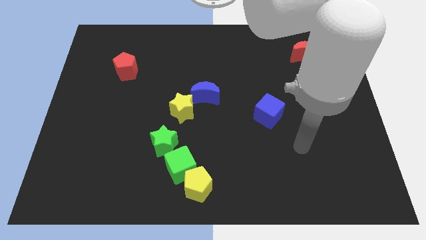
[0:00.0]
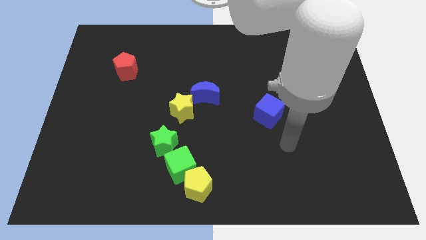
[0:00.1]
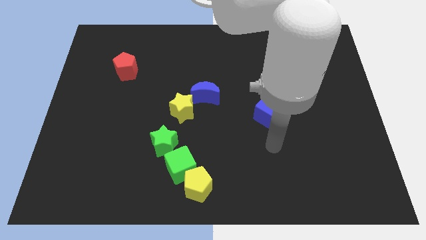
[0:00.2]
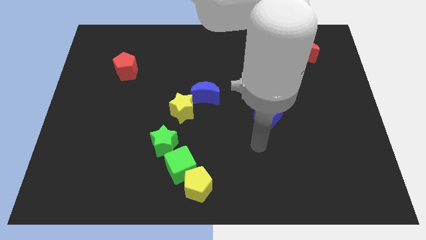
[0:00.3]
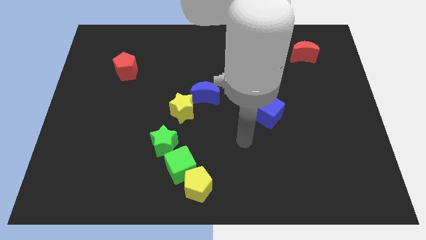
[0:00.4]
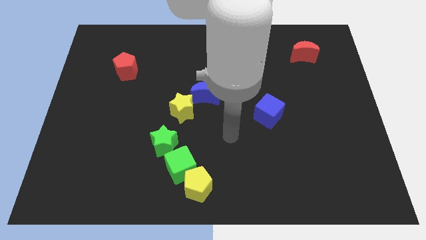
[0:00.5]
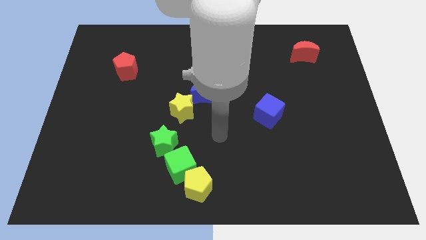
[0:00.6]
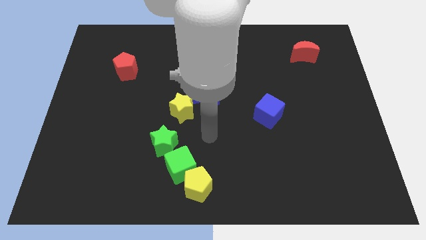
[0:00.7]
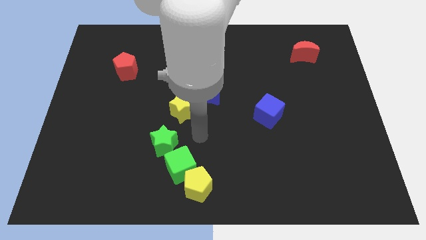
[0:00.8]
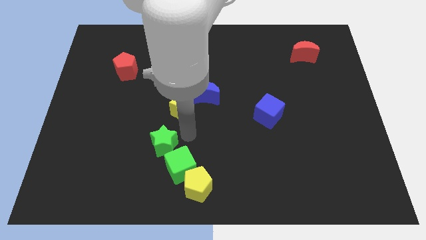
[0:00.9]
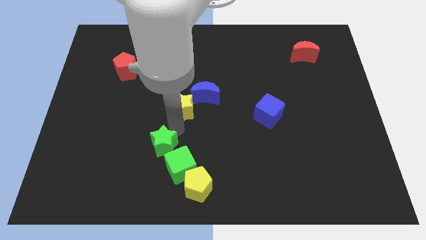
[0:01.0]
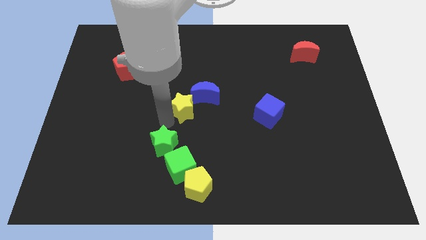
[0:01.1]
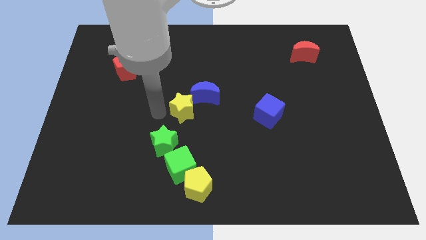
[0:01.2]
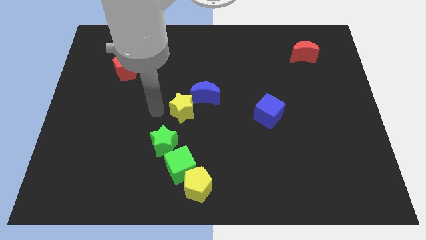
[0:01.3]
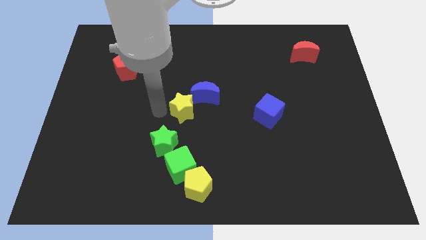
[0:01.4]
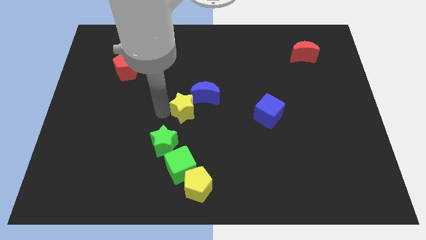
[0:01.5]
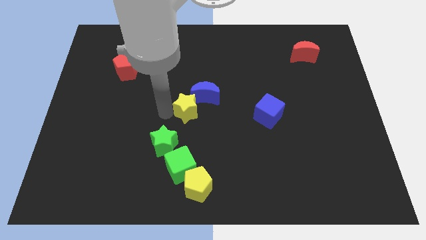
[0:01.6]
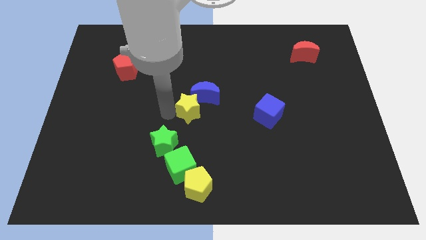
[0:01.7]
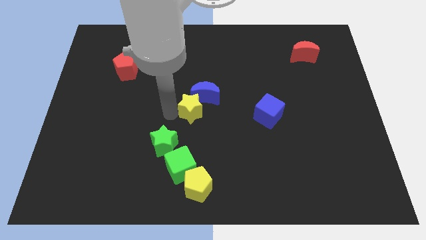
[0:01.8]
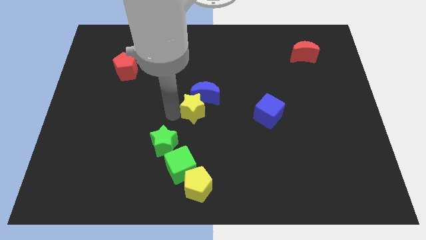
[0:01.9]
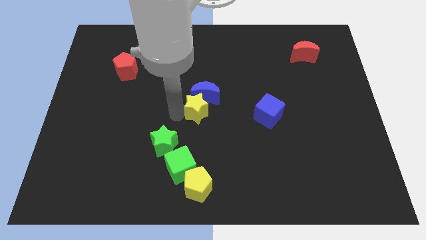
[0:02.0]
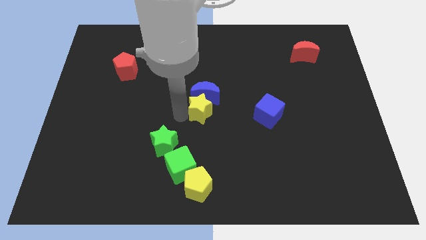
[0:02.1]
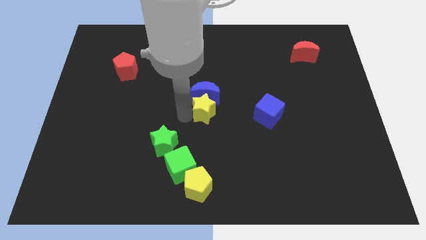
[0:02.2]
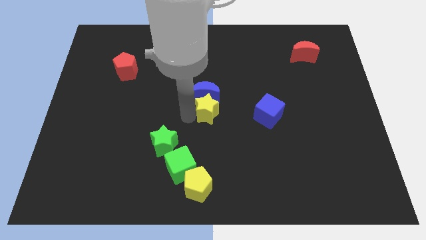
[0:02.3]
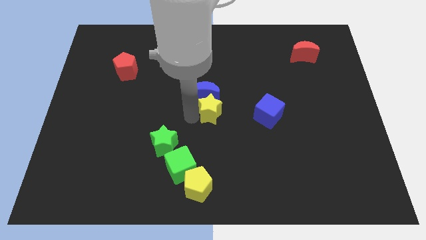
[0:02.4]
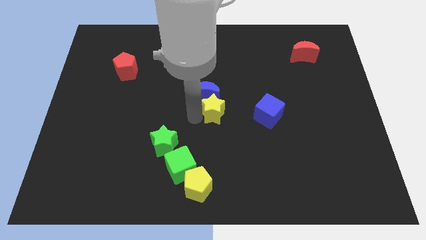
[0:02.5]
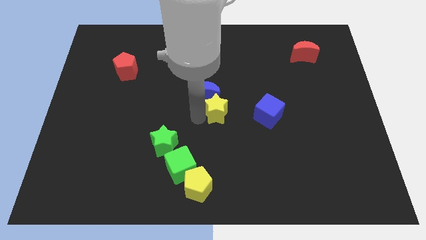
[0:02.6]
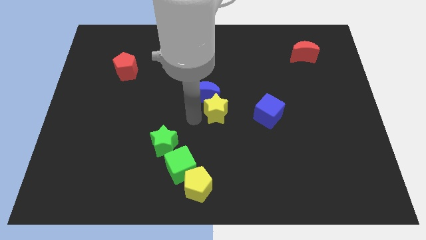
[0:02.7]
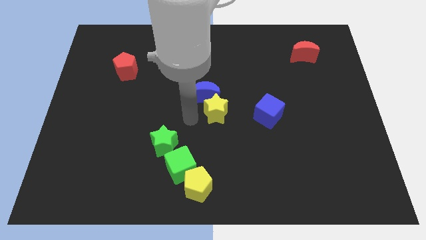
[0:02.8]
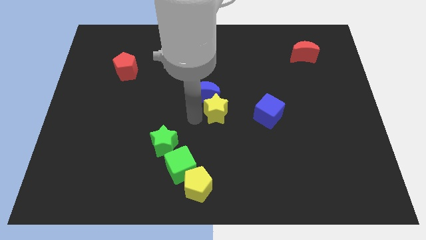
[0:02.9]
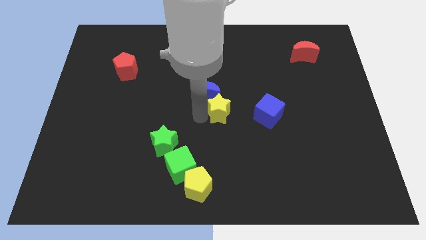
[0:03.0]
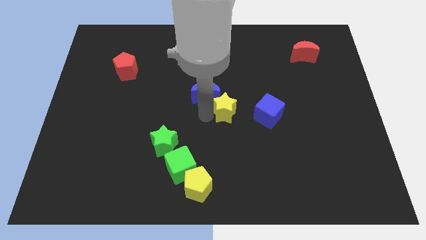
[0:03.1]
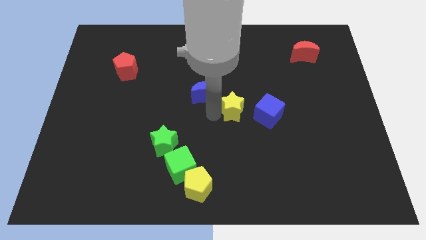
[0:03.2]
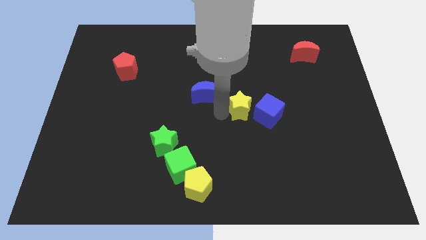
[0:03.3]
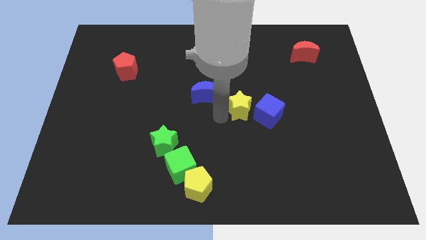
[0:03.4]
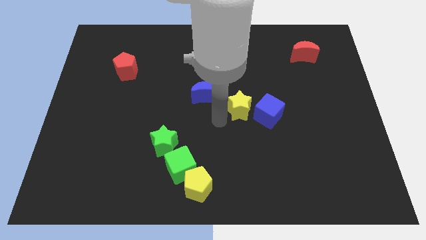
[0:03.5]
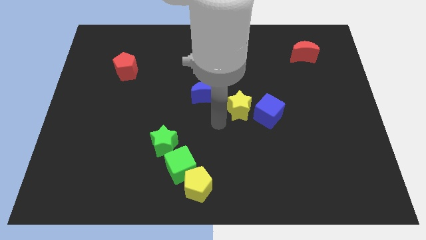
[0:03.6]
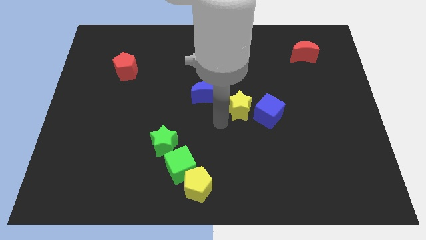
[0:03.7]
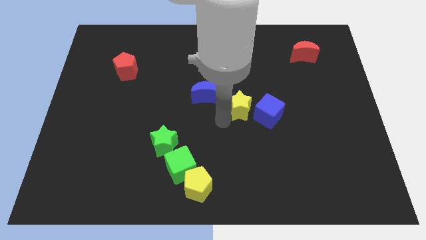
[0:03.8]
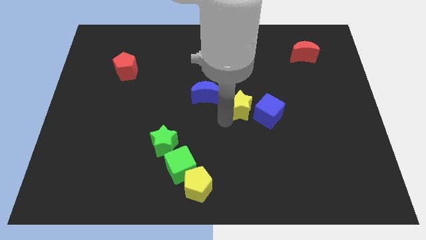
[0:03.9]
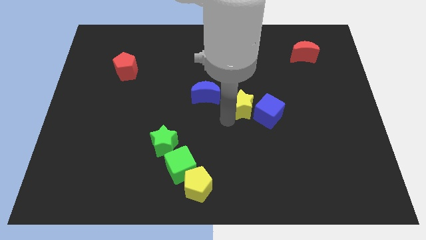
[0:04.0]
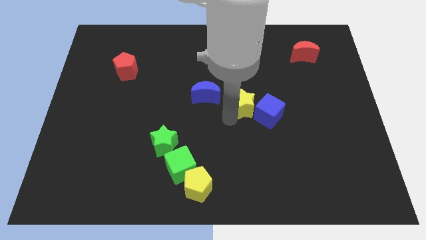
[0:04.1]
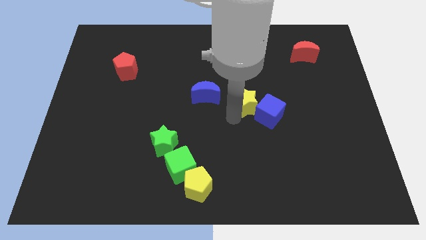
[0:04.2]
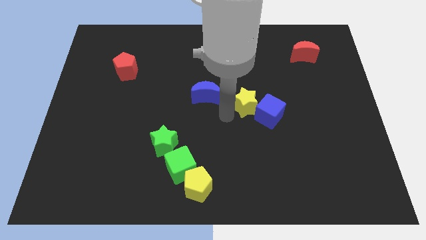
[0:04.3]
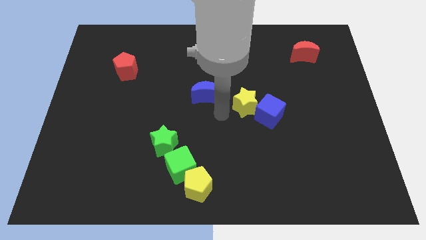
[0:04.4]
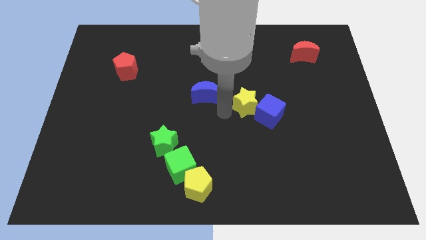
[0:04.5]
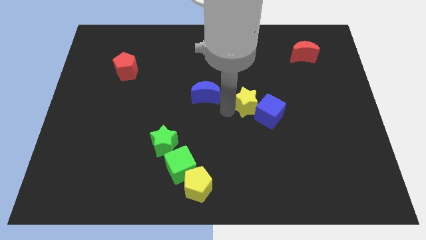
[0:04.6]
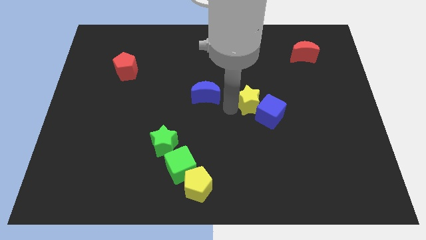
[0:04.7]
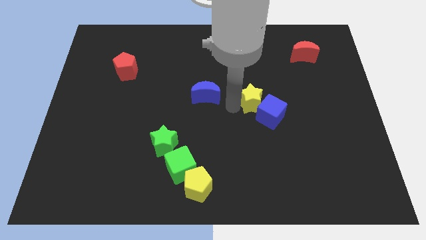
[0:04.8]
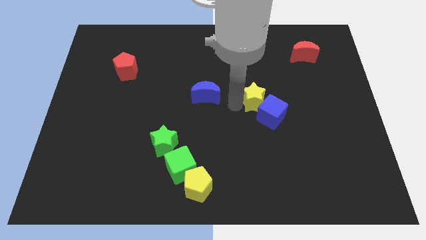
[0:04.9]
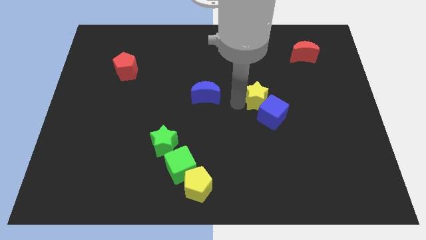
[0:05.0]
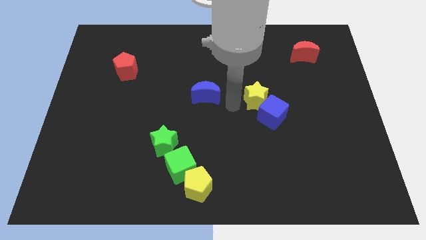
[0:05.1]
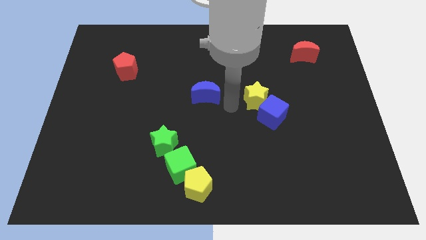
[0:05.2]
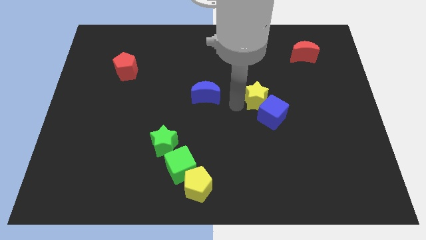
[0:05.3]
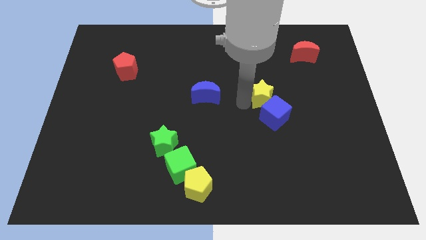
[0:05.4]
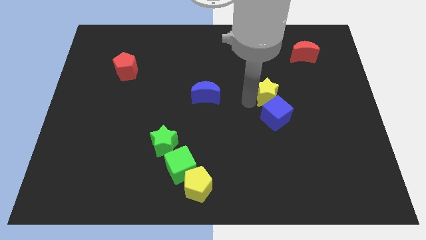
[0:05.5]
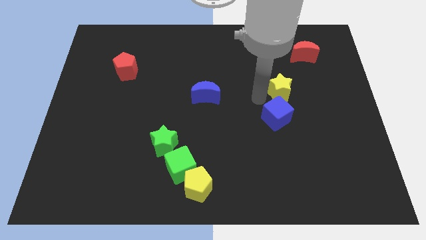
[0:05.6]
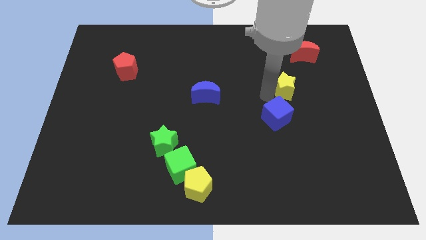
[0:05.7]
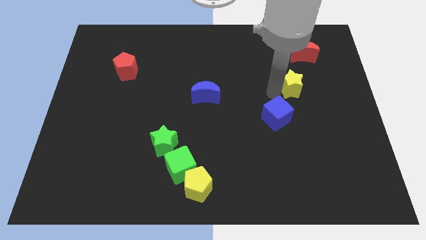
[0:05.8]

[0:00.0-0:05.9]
move the yellow star below the red moon

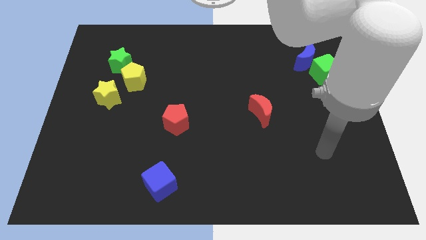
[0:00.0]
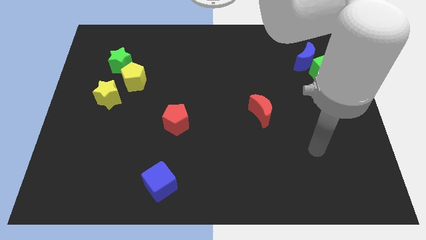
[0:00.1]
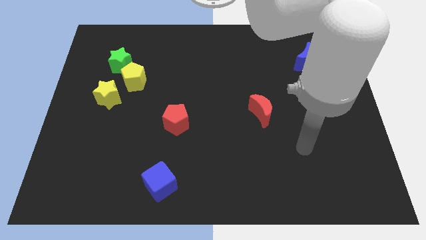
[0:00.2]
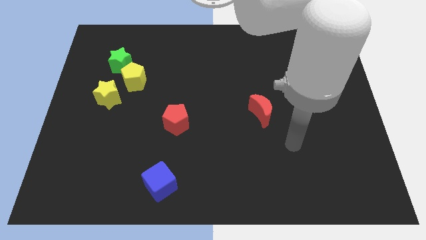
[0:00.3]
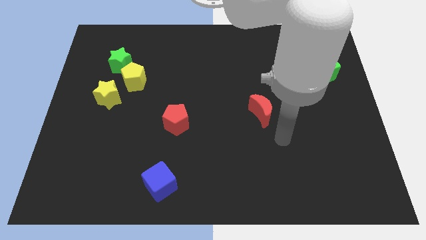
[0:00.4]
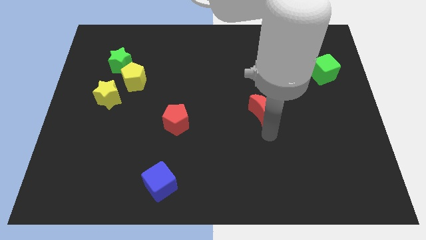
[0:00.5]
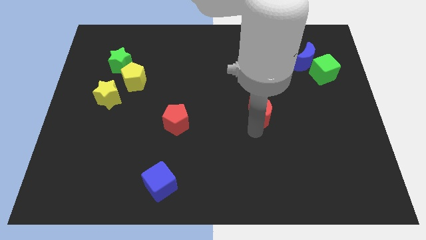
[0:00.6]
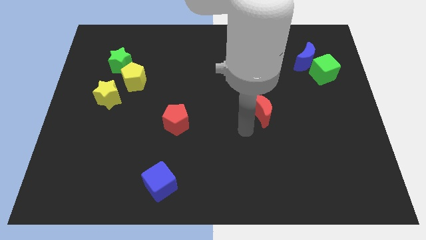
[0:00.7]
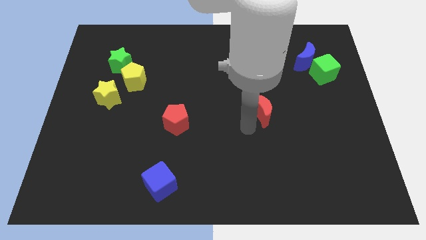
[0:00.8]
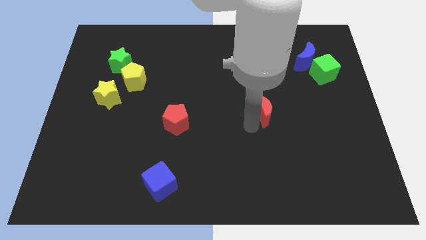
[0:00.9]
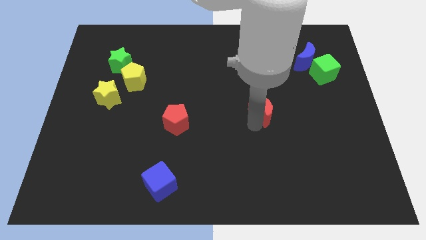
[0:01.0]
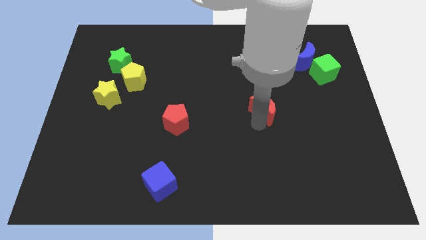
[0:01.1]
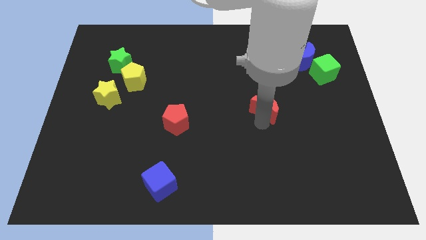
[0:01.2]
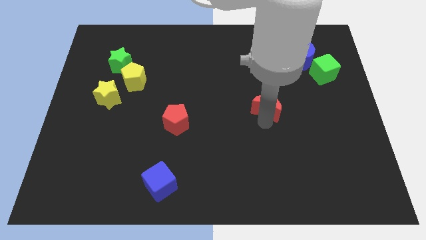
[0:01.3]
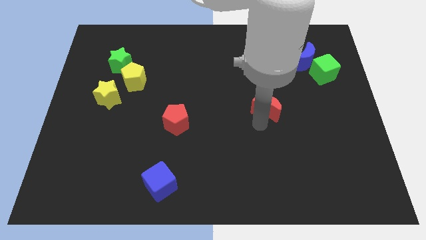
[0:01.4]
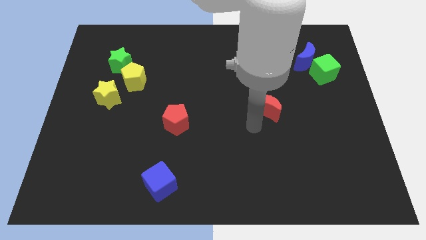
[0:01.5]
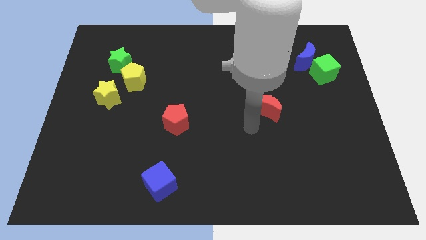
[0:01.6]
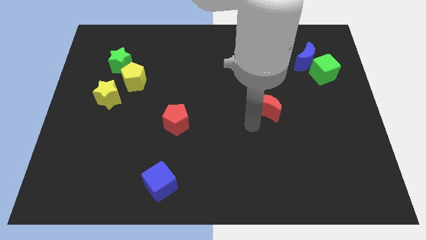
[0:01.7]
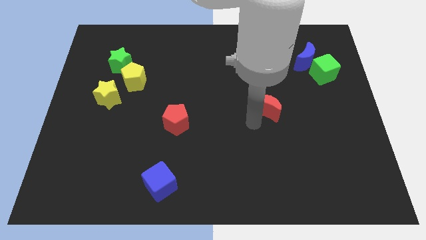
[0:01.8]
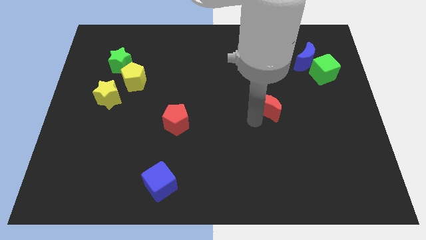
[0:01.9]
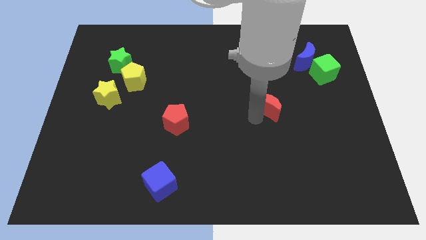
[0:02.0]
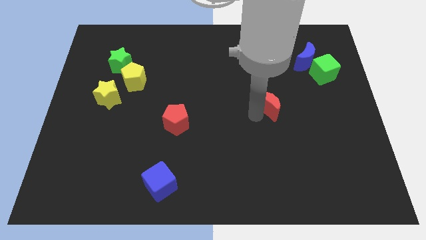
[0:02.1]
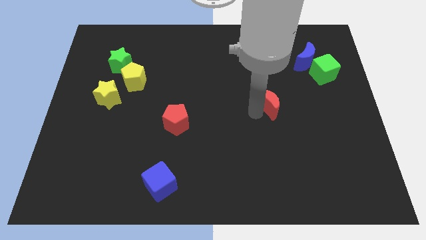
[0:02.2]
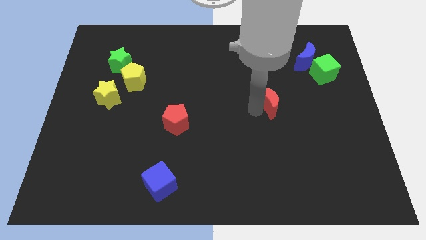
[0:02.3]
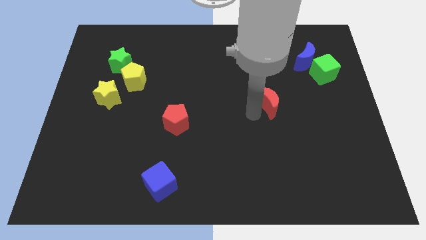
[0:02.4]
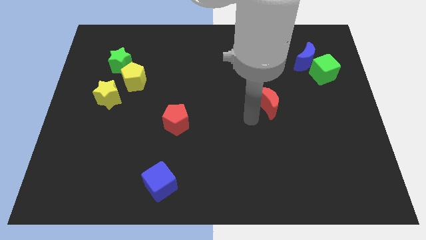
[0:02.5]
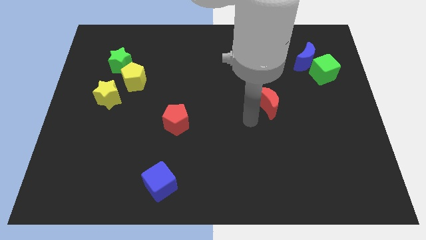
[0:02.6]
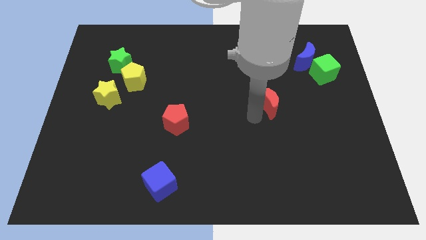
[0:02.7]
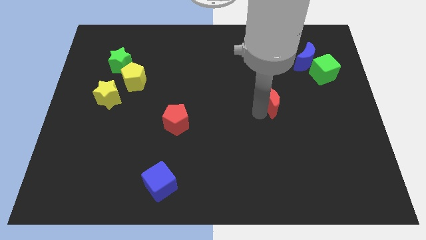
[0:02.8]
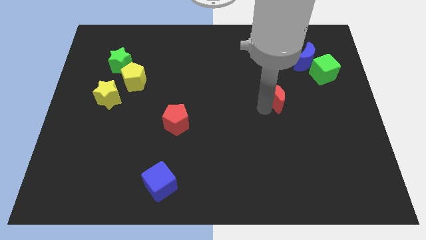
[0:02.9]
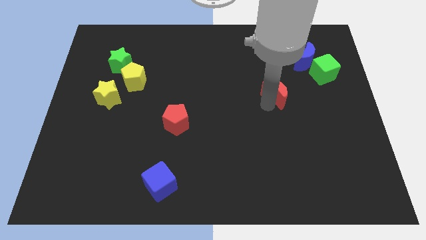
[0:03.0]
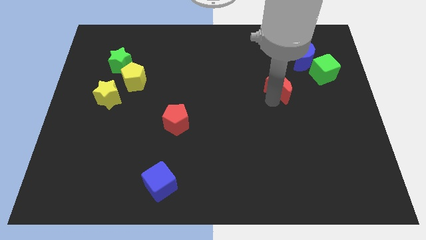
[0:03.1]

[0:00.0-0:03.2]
push the red moon to the bottom left side of the blue moon
